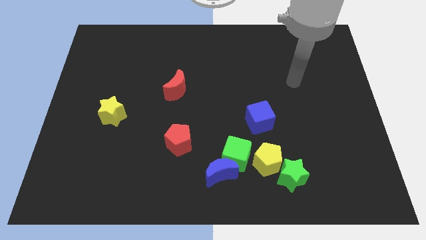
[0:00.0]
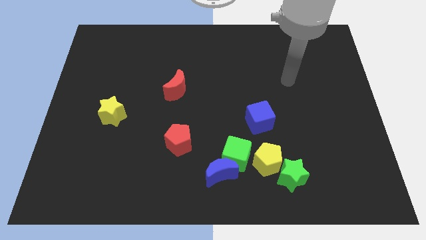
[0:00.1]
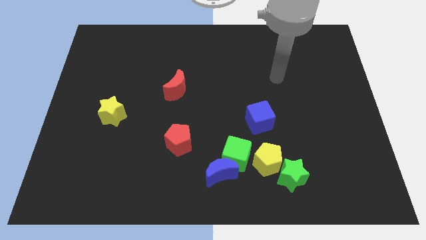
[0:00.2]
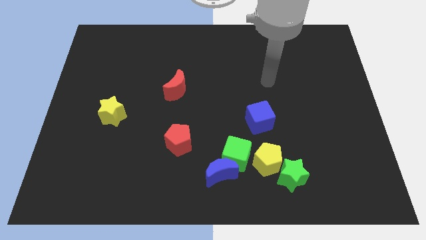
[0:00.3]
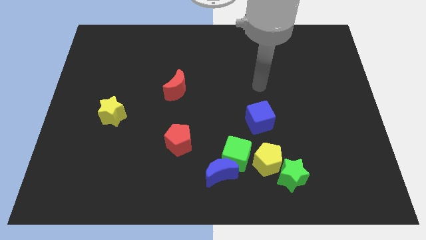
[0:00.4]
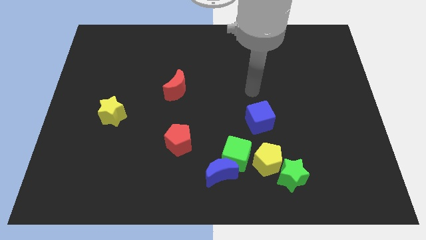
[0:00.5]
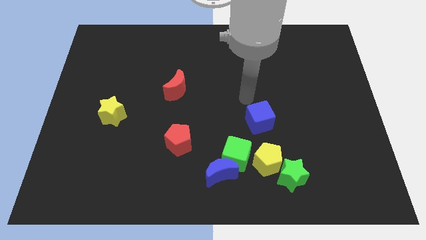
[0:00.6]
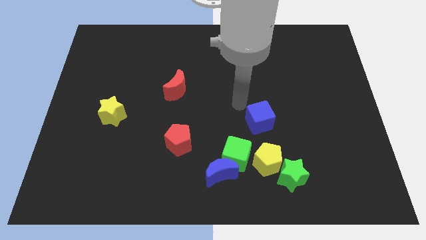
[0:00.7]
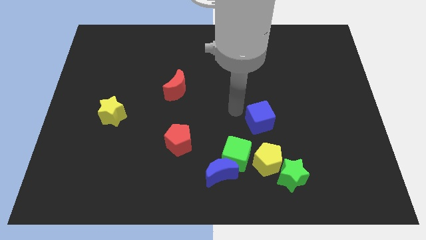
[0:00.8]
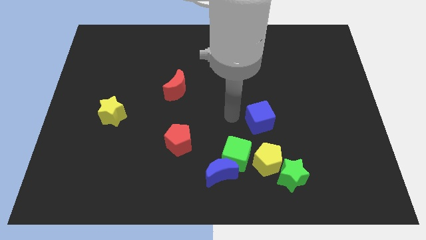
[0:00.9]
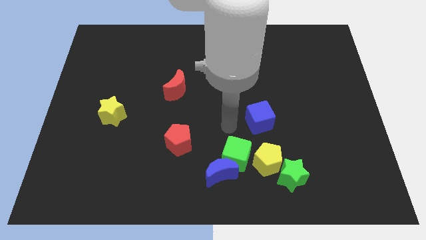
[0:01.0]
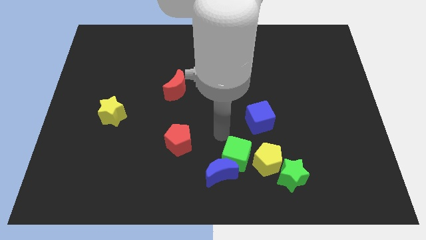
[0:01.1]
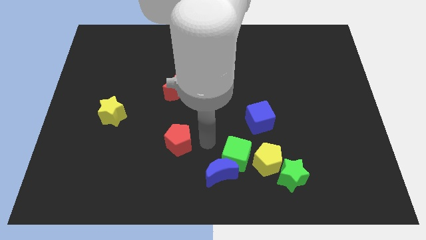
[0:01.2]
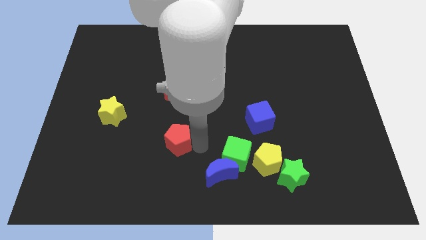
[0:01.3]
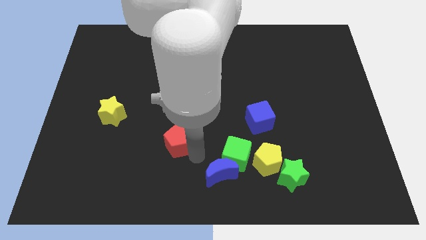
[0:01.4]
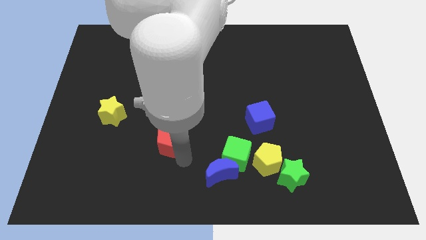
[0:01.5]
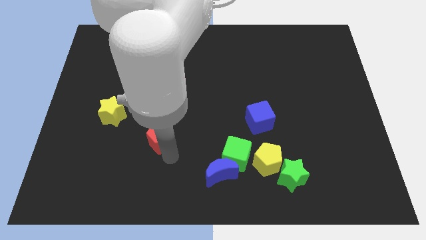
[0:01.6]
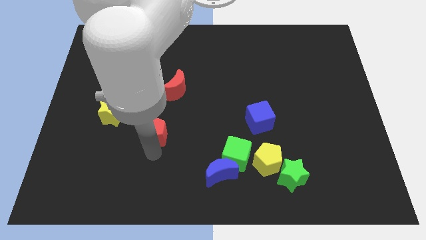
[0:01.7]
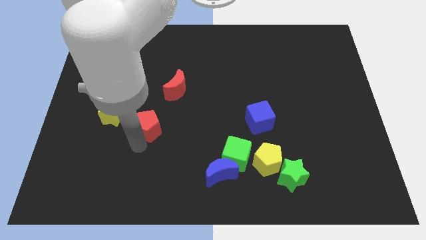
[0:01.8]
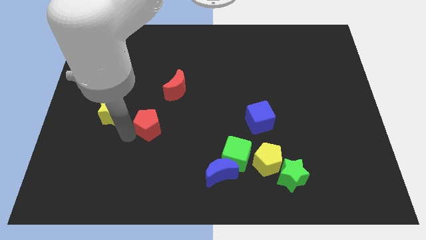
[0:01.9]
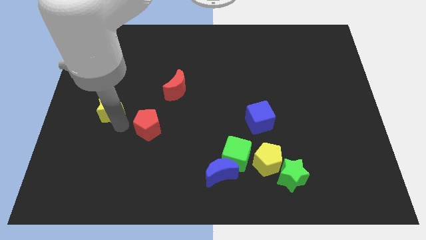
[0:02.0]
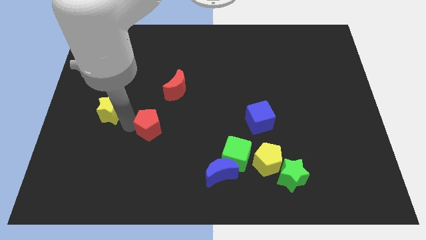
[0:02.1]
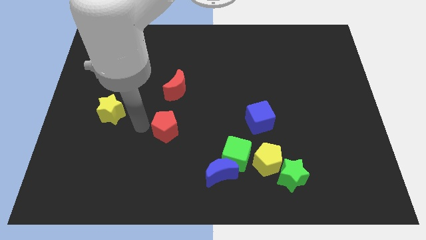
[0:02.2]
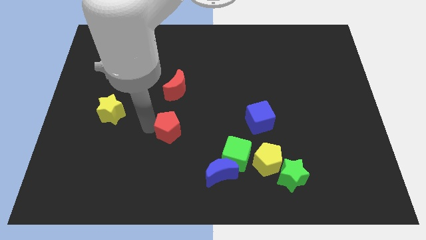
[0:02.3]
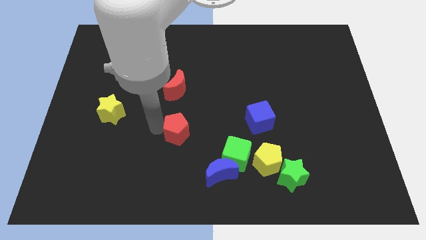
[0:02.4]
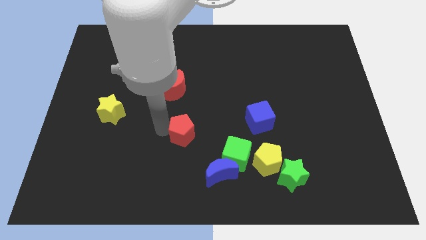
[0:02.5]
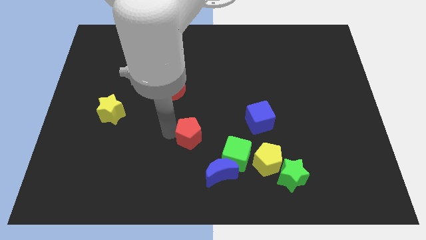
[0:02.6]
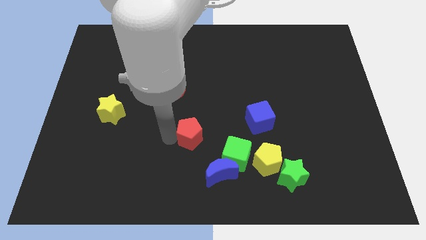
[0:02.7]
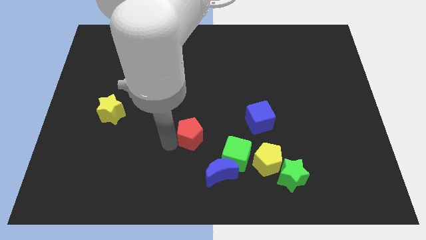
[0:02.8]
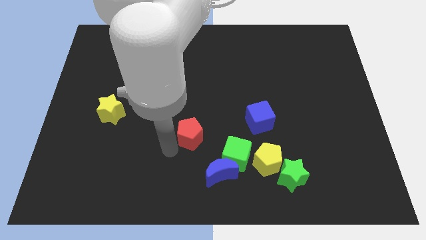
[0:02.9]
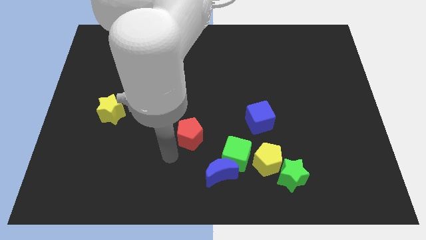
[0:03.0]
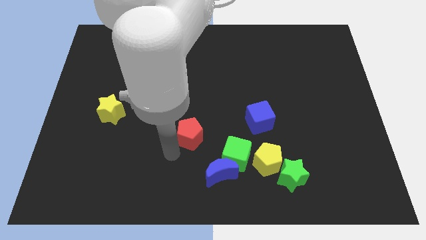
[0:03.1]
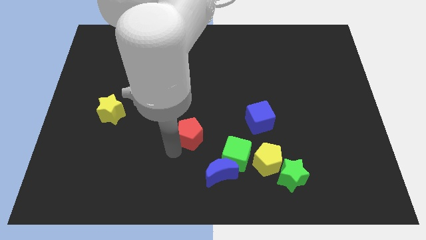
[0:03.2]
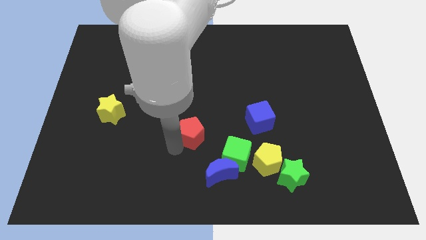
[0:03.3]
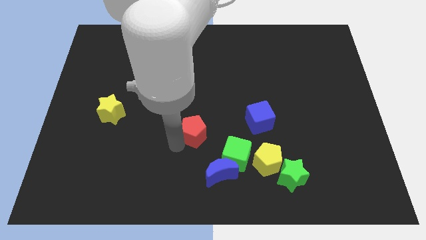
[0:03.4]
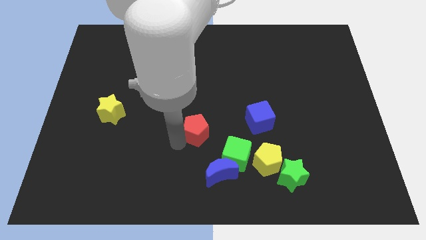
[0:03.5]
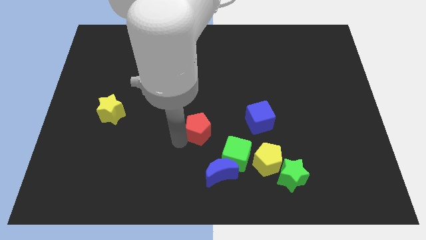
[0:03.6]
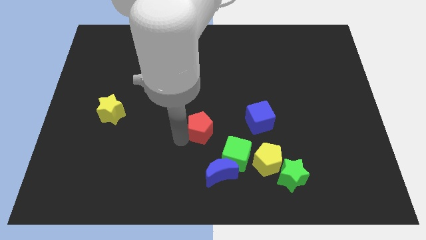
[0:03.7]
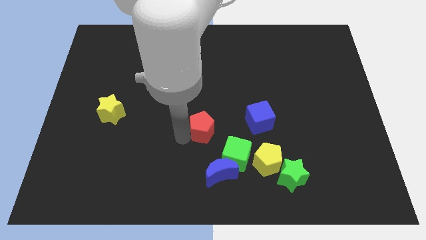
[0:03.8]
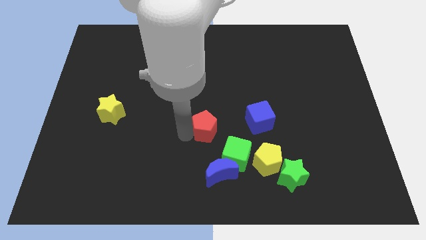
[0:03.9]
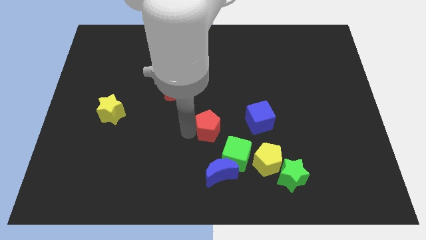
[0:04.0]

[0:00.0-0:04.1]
slide the red pentagon upwards and right diagonally a little bit

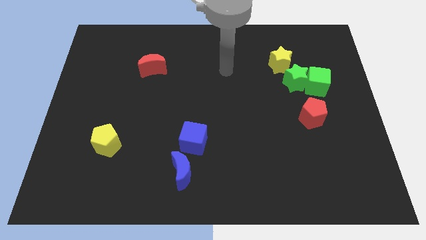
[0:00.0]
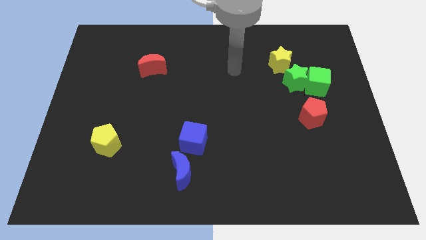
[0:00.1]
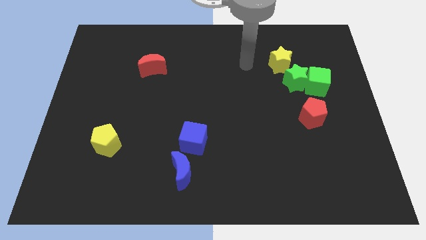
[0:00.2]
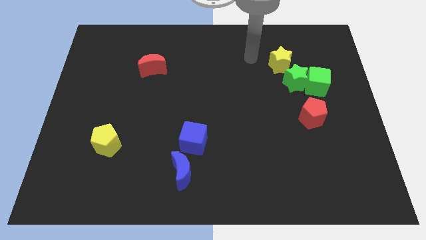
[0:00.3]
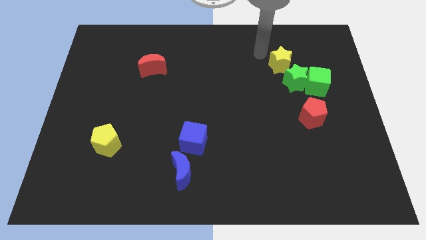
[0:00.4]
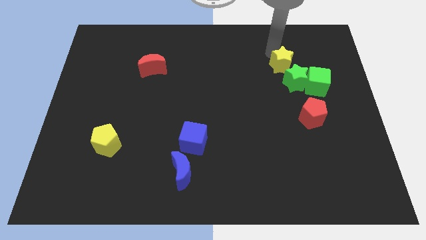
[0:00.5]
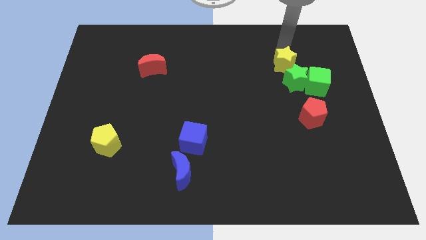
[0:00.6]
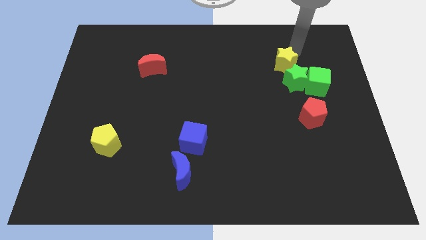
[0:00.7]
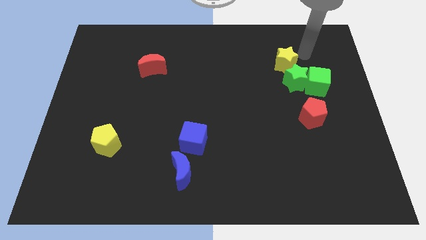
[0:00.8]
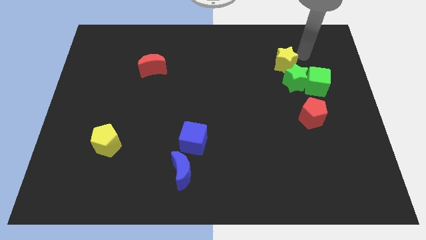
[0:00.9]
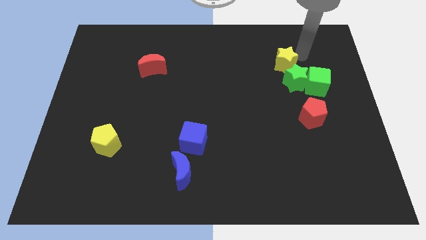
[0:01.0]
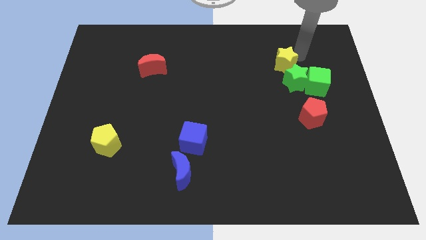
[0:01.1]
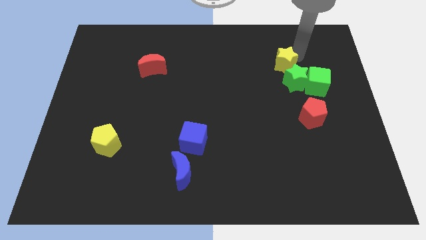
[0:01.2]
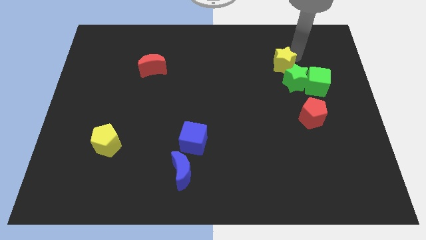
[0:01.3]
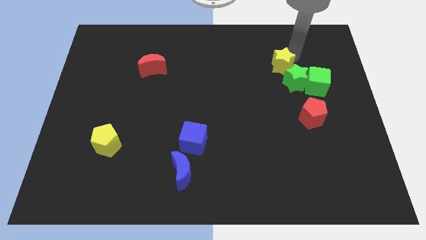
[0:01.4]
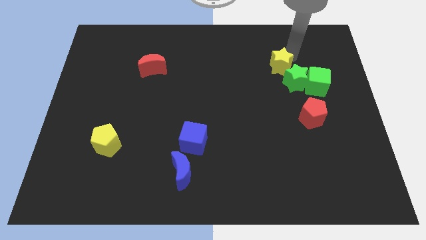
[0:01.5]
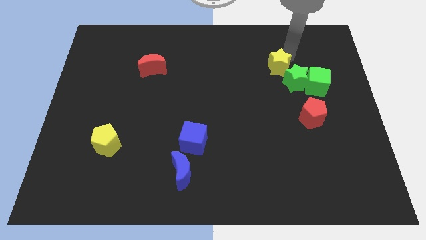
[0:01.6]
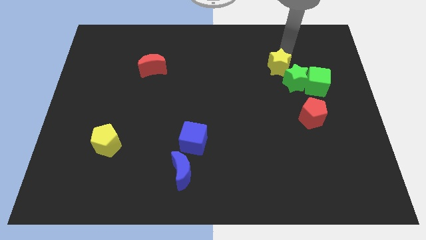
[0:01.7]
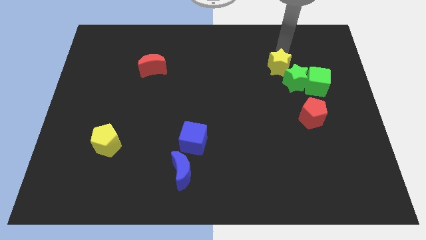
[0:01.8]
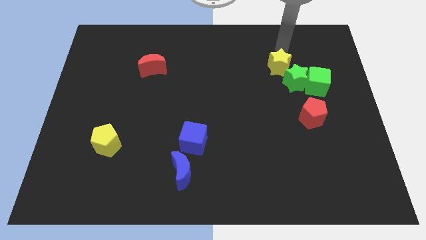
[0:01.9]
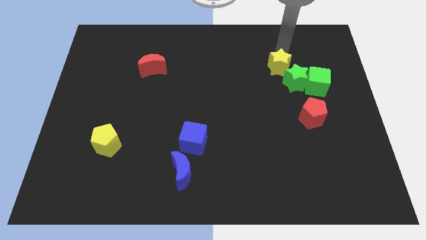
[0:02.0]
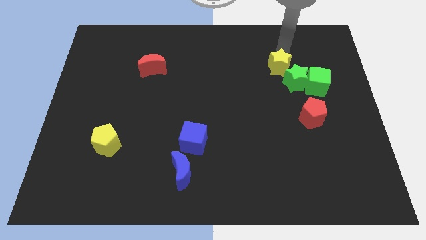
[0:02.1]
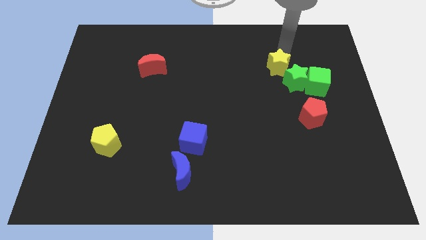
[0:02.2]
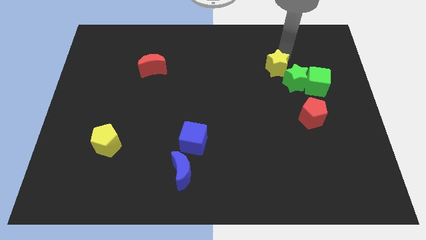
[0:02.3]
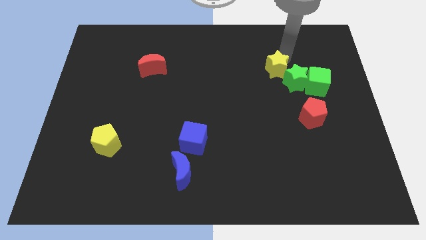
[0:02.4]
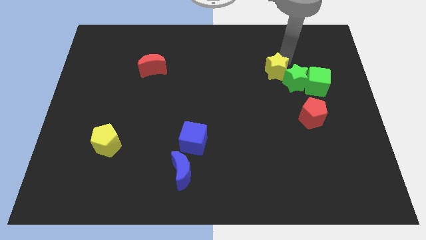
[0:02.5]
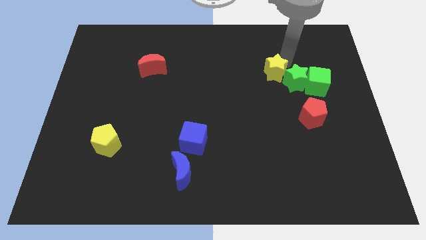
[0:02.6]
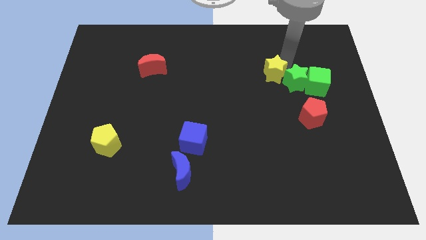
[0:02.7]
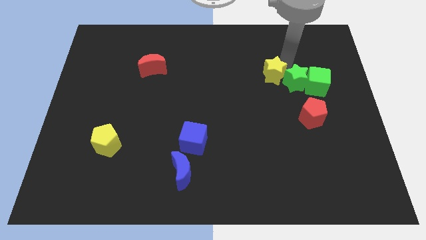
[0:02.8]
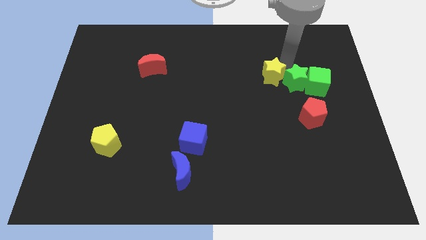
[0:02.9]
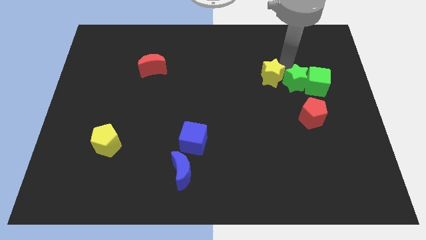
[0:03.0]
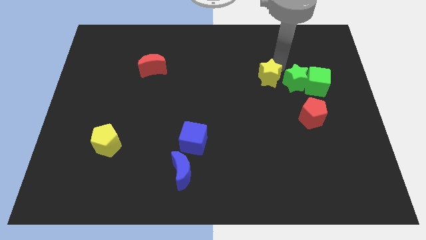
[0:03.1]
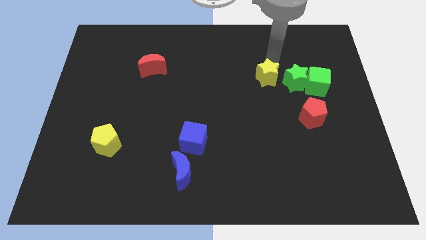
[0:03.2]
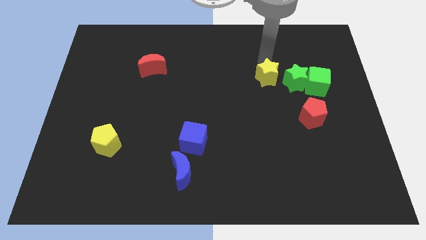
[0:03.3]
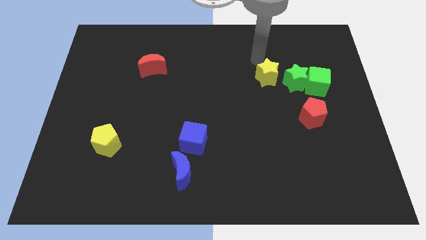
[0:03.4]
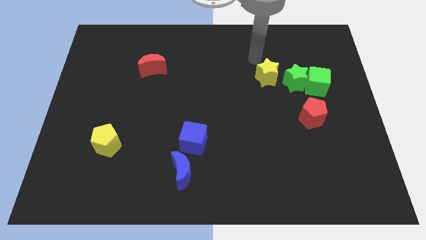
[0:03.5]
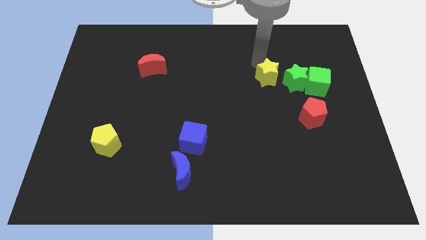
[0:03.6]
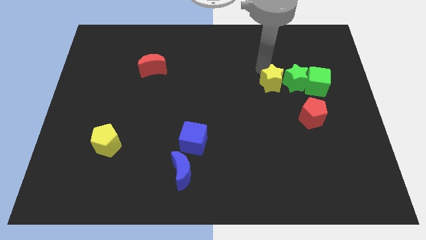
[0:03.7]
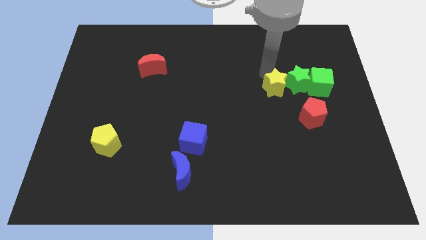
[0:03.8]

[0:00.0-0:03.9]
slide the yellow star a little down

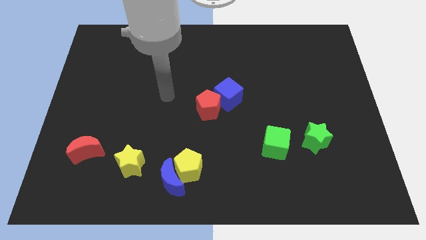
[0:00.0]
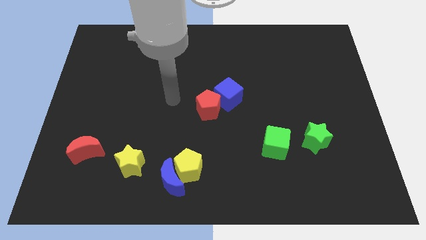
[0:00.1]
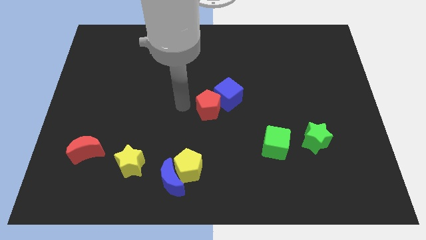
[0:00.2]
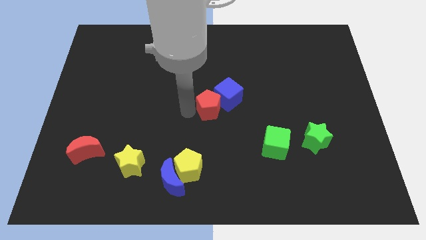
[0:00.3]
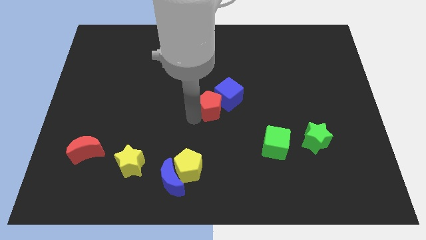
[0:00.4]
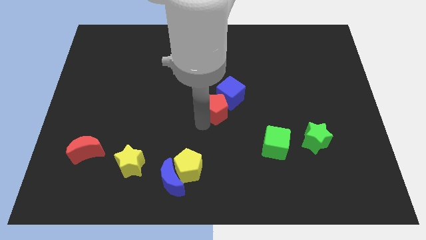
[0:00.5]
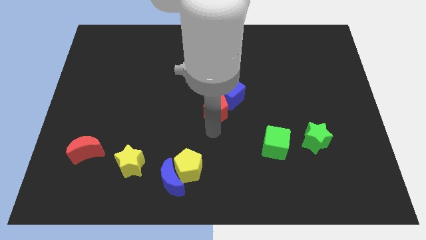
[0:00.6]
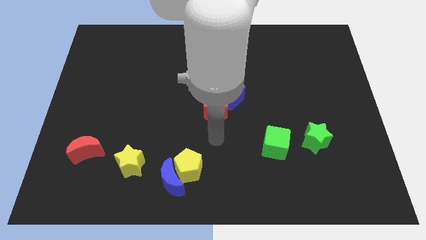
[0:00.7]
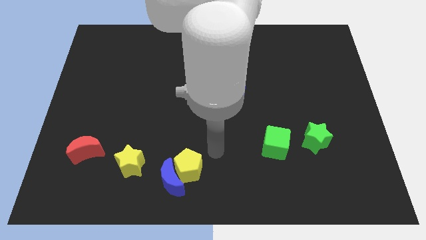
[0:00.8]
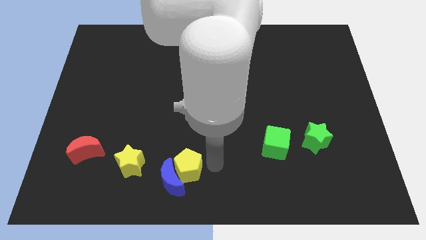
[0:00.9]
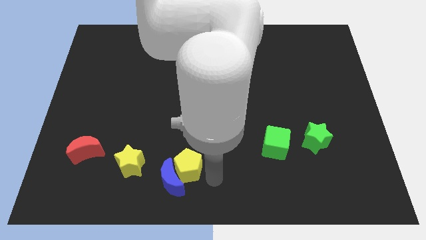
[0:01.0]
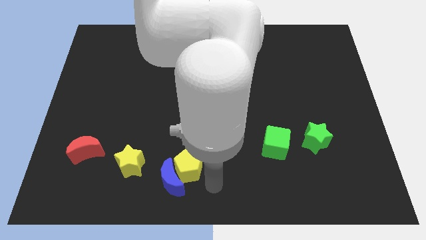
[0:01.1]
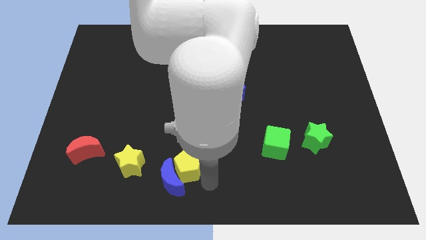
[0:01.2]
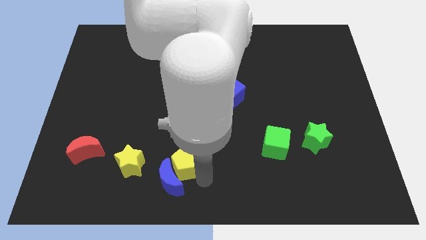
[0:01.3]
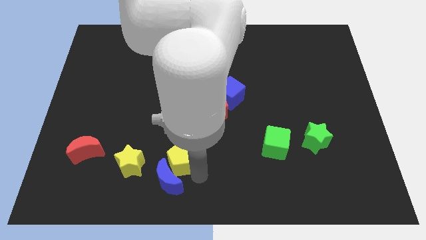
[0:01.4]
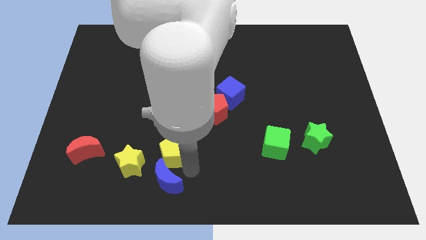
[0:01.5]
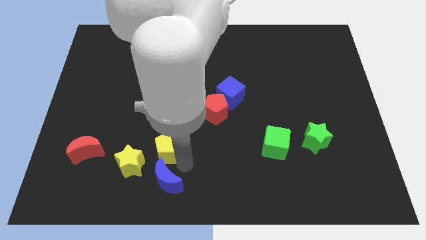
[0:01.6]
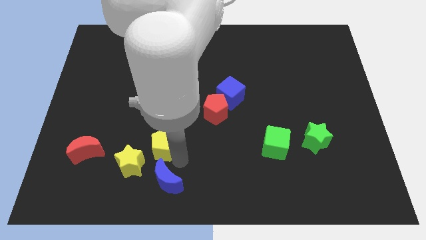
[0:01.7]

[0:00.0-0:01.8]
slightly move the yellow pentagon up and left
